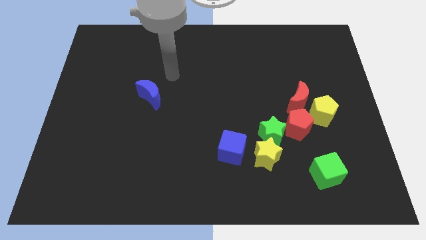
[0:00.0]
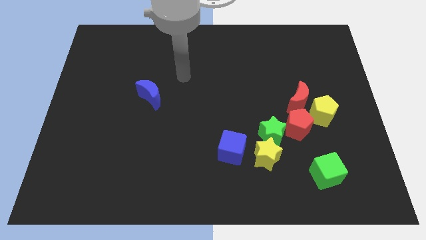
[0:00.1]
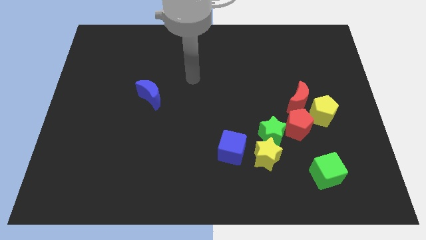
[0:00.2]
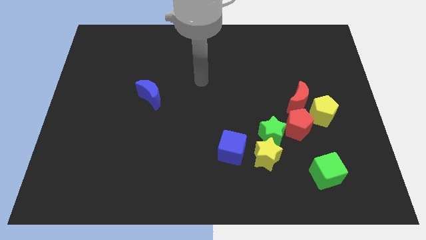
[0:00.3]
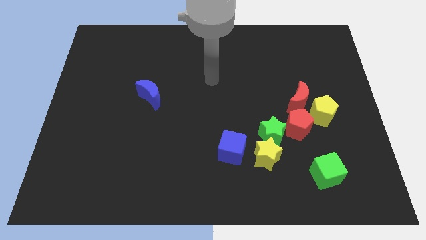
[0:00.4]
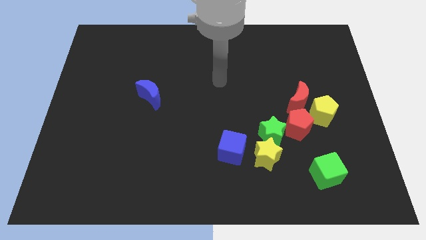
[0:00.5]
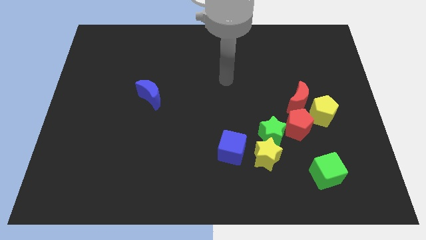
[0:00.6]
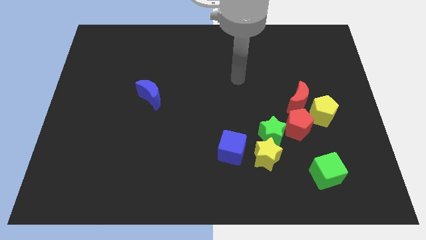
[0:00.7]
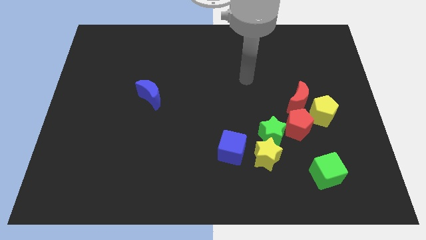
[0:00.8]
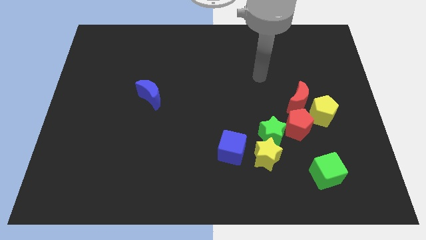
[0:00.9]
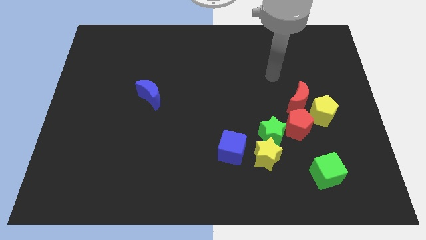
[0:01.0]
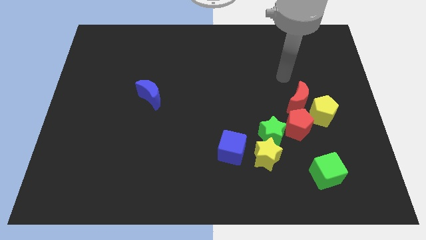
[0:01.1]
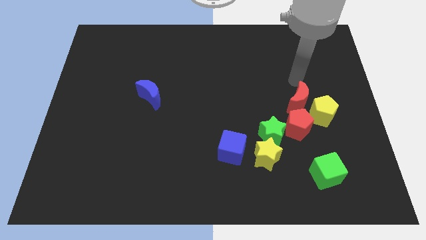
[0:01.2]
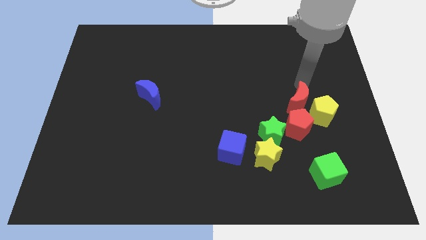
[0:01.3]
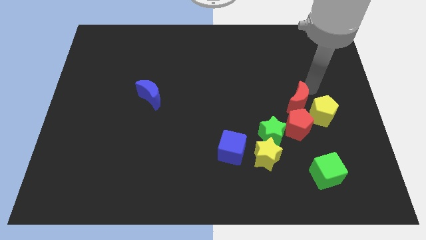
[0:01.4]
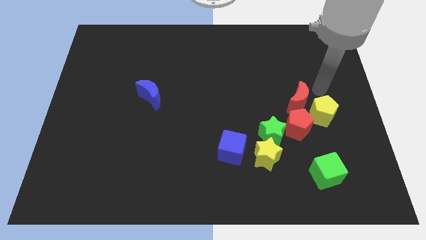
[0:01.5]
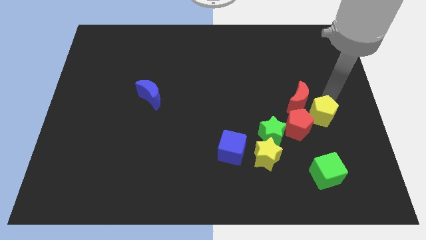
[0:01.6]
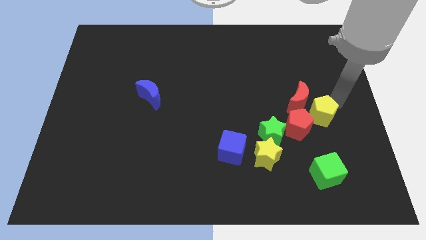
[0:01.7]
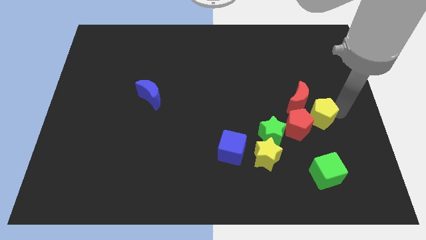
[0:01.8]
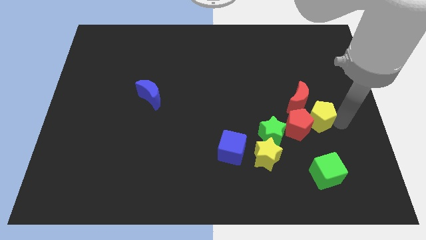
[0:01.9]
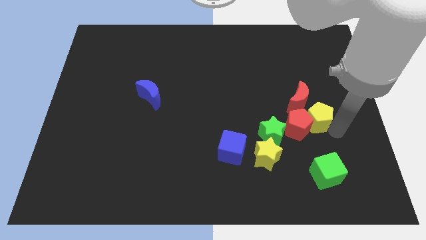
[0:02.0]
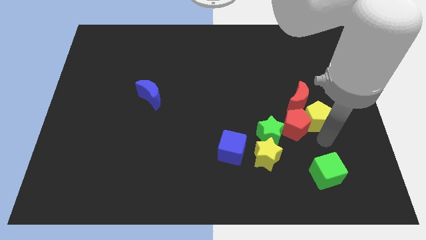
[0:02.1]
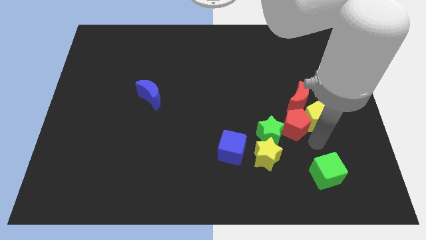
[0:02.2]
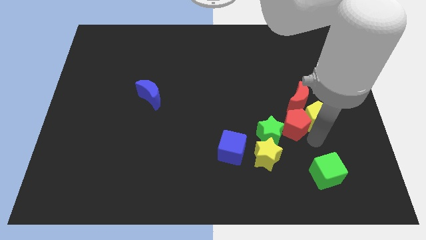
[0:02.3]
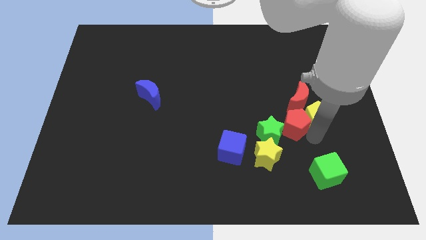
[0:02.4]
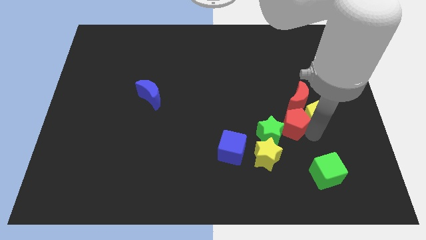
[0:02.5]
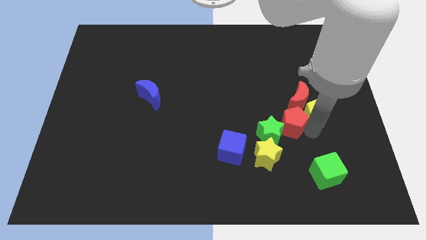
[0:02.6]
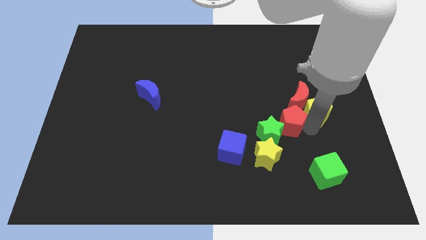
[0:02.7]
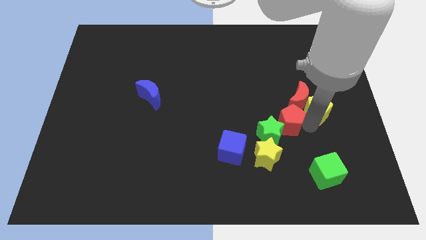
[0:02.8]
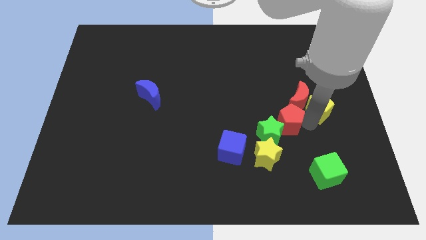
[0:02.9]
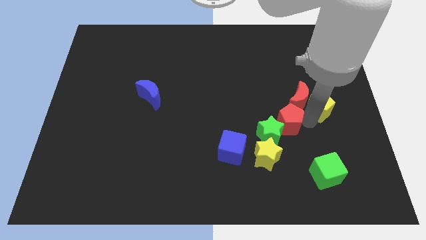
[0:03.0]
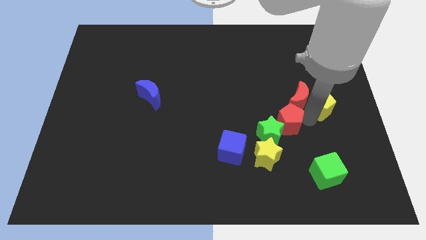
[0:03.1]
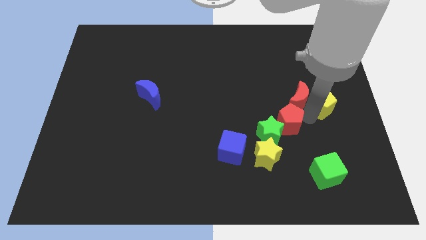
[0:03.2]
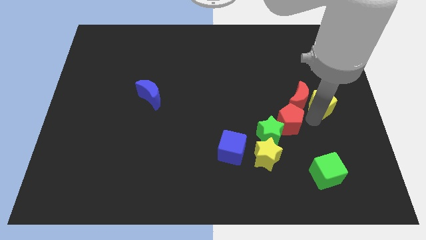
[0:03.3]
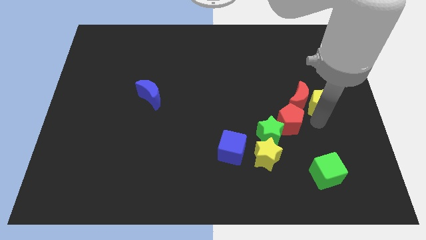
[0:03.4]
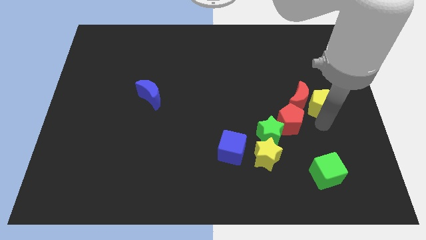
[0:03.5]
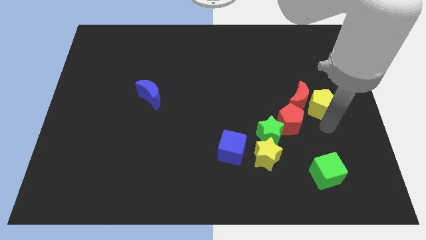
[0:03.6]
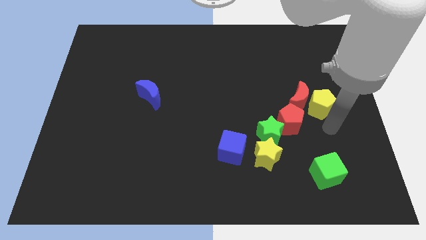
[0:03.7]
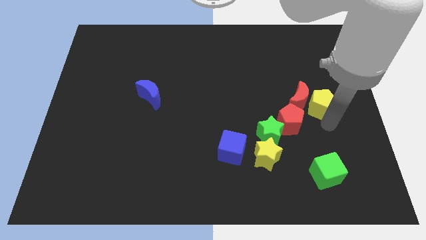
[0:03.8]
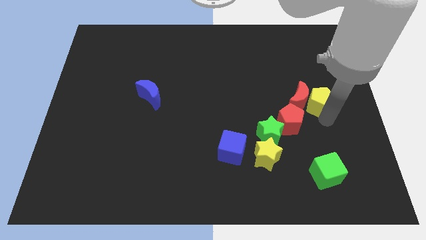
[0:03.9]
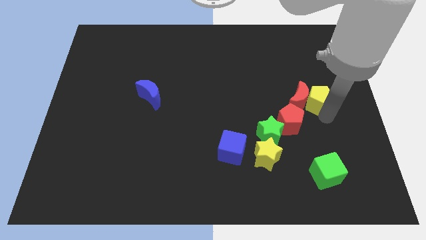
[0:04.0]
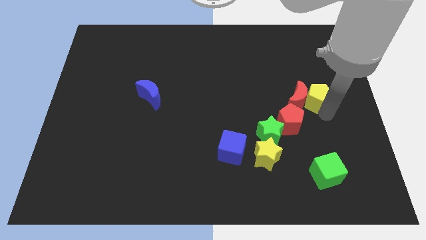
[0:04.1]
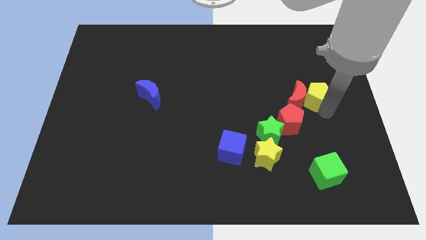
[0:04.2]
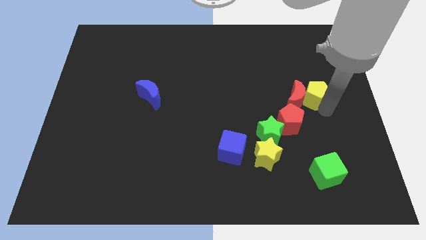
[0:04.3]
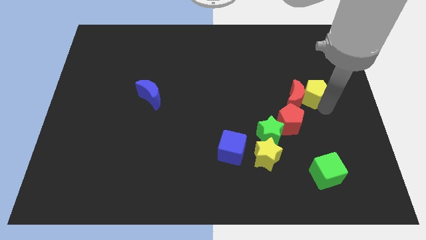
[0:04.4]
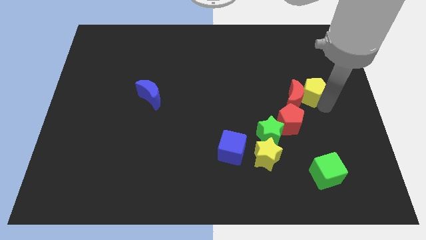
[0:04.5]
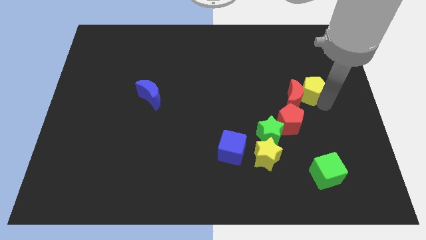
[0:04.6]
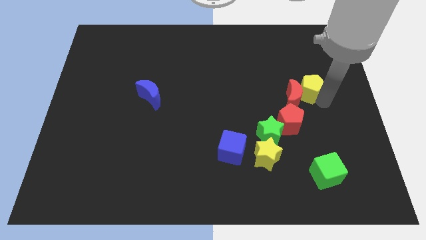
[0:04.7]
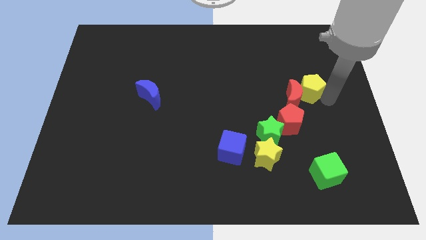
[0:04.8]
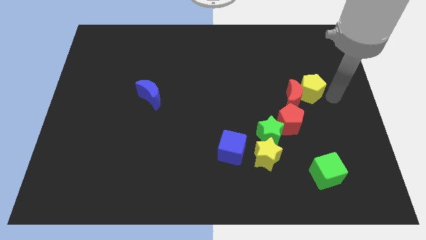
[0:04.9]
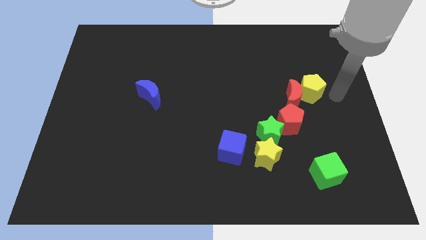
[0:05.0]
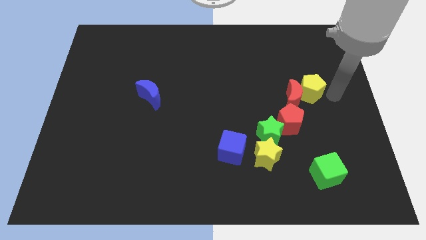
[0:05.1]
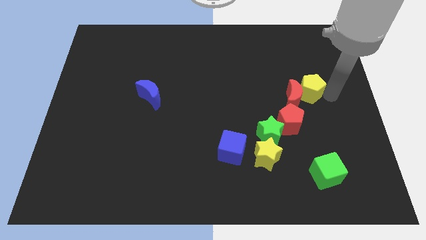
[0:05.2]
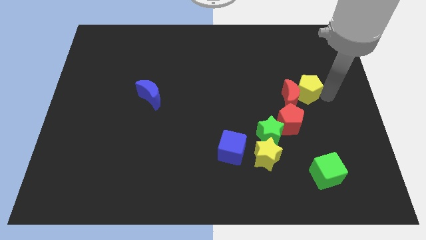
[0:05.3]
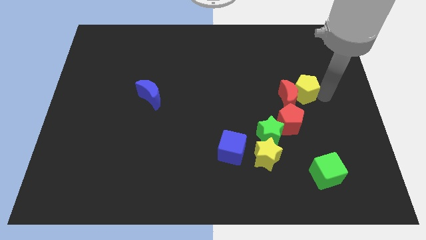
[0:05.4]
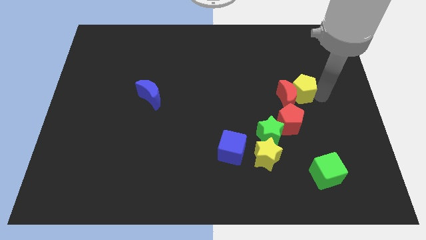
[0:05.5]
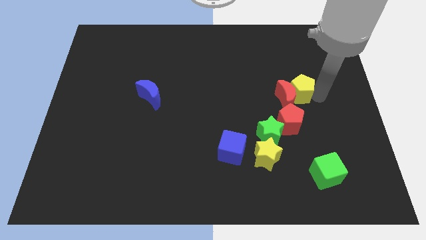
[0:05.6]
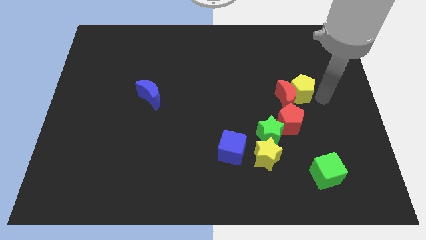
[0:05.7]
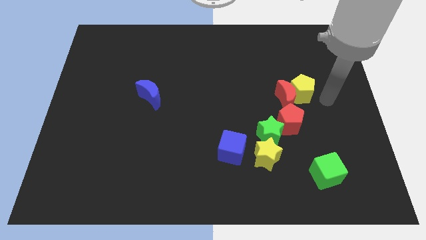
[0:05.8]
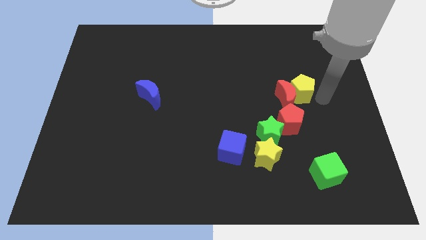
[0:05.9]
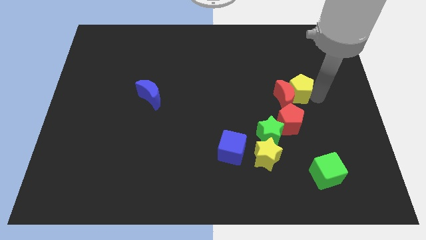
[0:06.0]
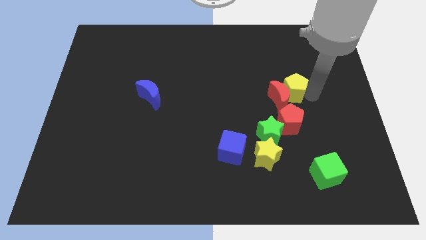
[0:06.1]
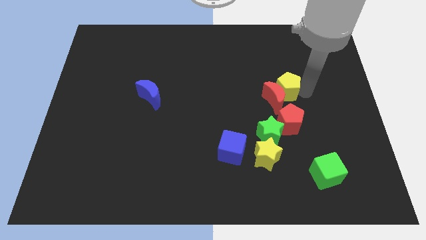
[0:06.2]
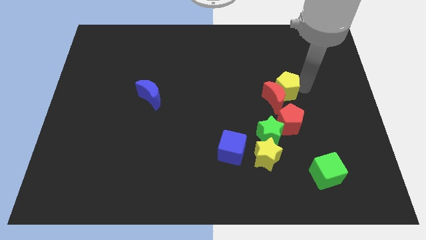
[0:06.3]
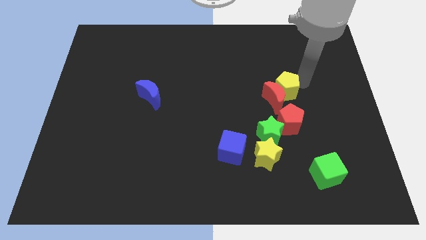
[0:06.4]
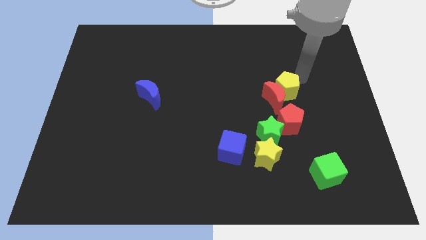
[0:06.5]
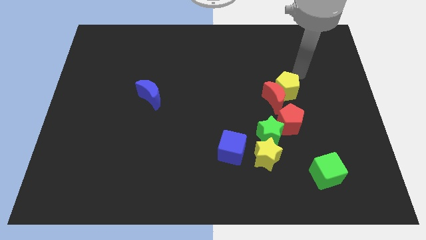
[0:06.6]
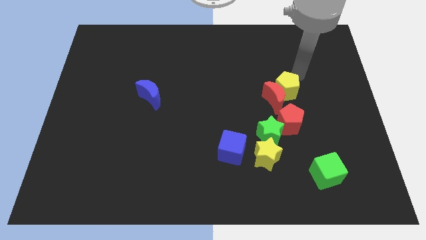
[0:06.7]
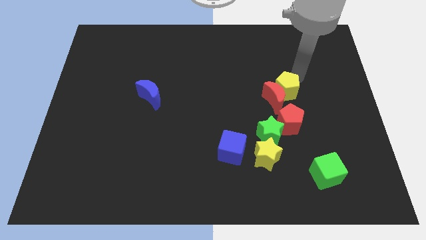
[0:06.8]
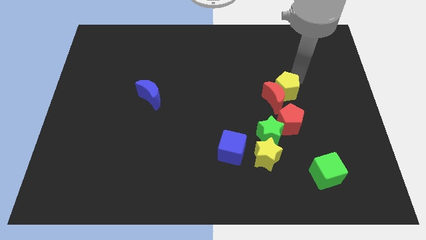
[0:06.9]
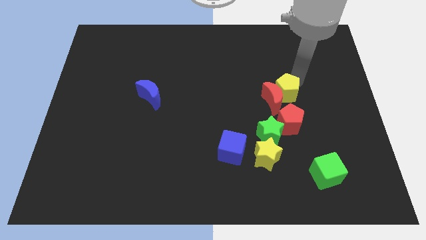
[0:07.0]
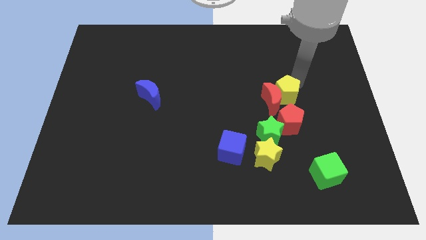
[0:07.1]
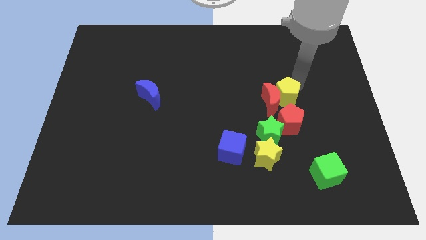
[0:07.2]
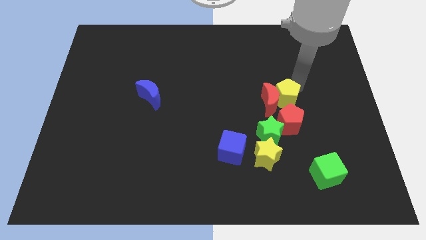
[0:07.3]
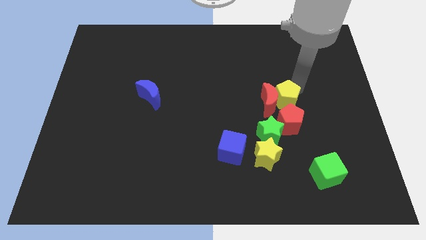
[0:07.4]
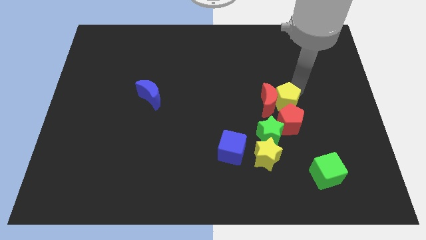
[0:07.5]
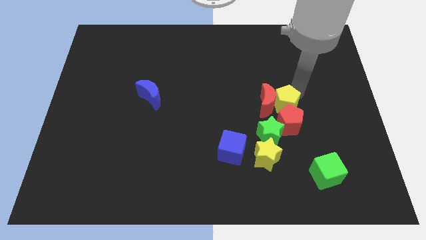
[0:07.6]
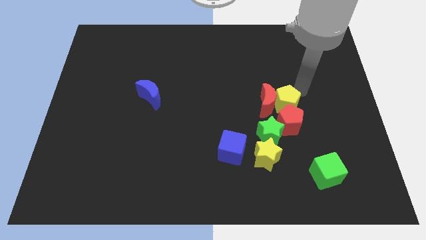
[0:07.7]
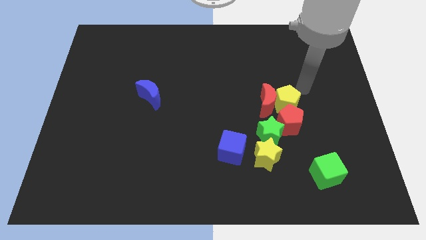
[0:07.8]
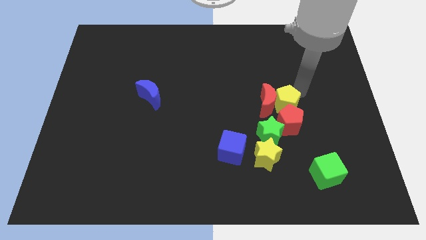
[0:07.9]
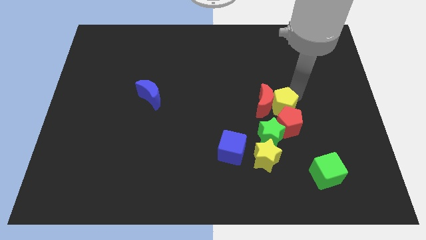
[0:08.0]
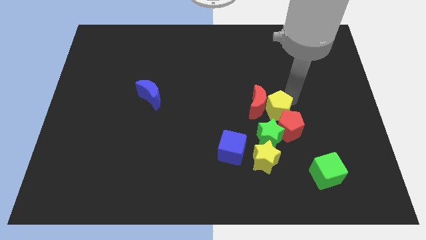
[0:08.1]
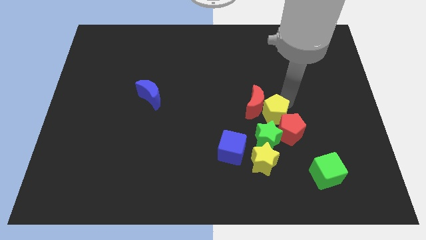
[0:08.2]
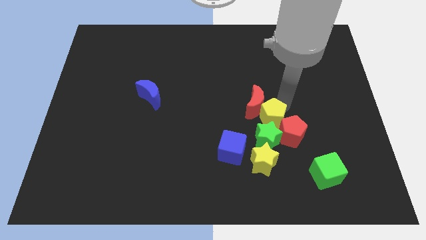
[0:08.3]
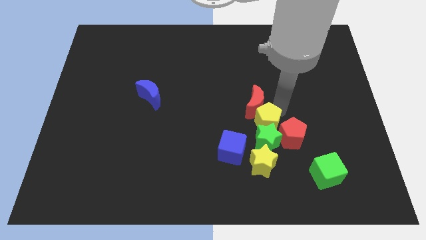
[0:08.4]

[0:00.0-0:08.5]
push the yellow pentagon diagonally up and to the right of the blue cube
